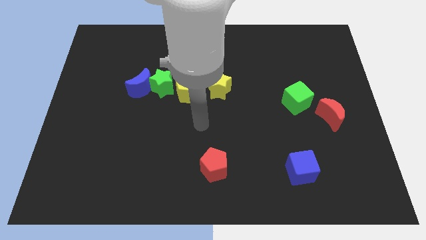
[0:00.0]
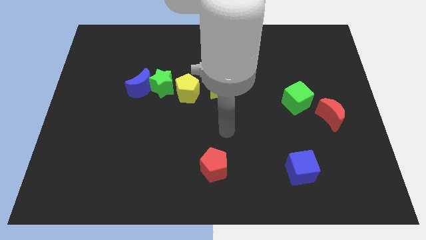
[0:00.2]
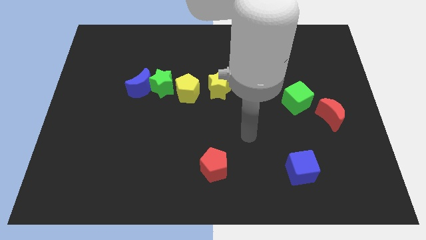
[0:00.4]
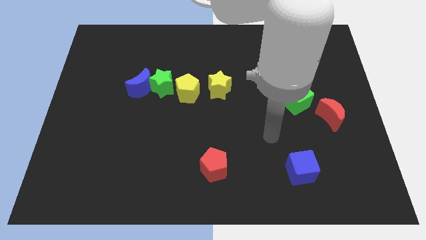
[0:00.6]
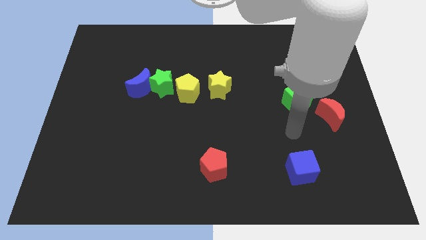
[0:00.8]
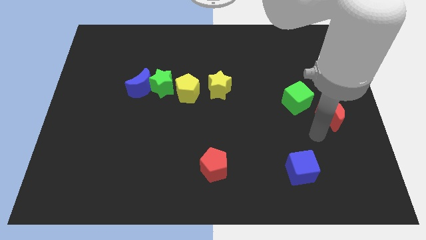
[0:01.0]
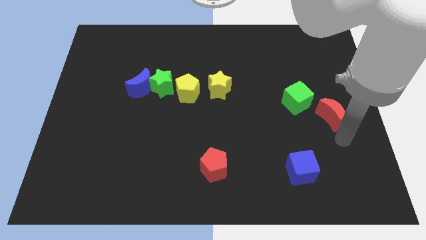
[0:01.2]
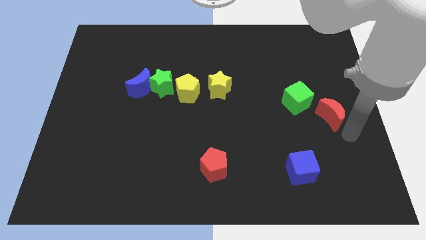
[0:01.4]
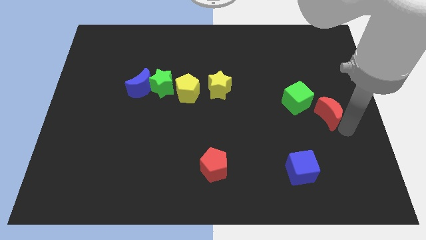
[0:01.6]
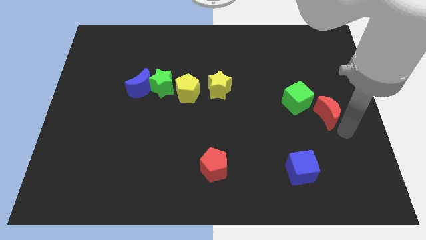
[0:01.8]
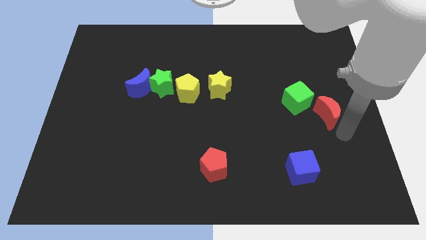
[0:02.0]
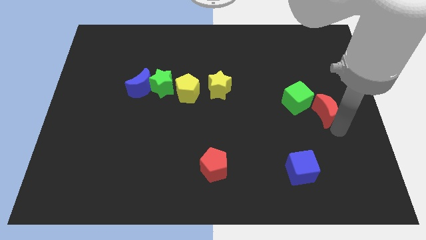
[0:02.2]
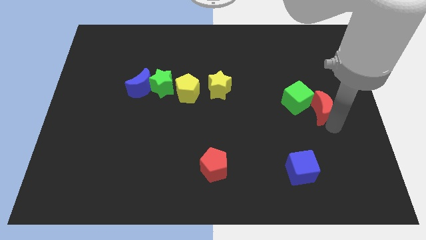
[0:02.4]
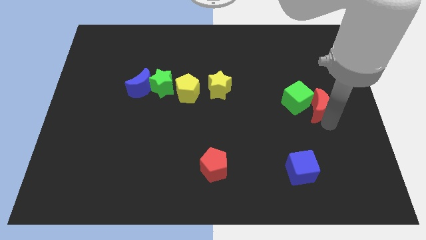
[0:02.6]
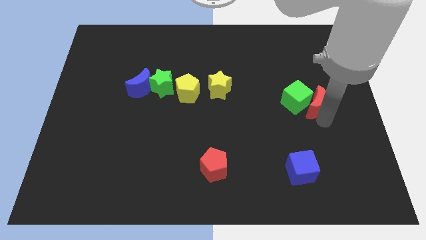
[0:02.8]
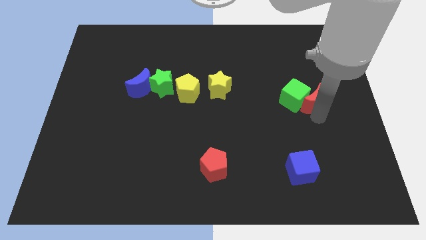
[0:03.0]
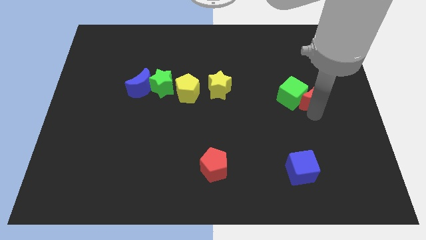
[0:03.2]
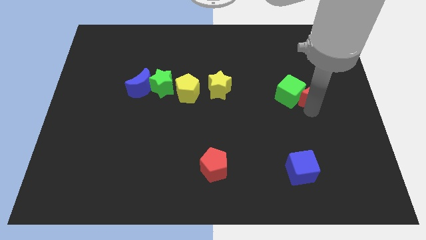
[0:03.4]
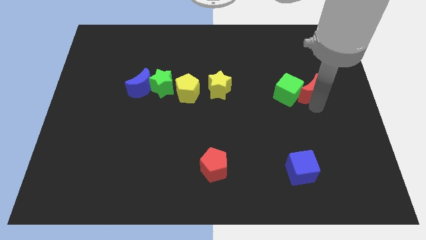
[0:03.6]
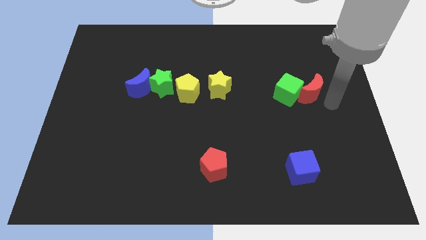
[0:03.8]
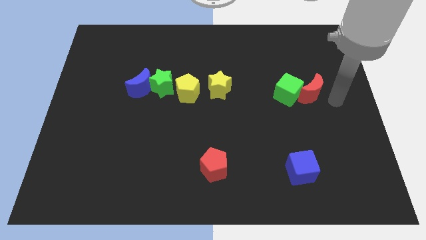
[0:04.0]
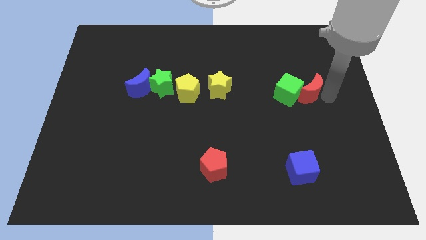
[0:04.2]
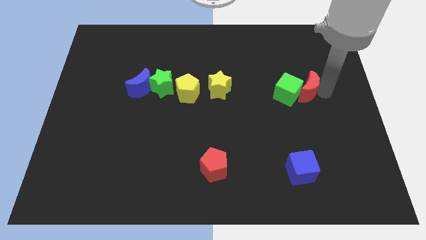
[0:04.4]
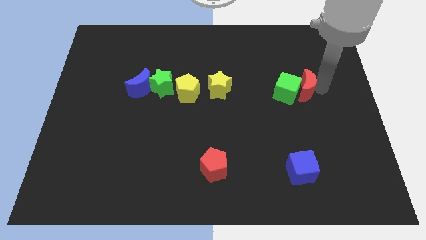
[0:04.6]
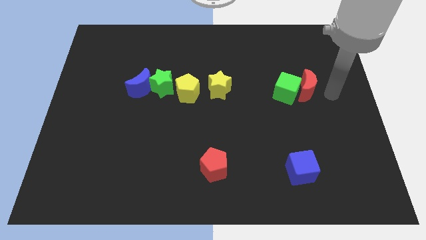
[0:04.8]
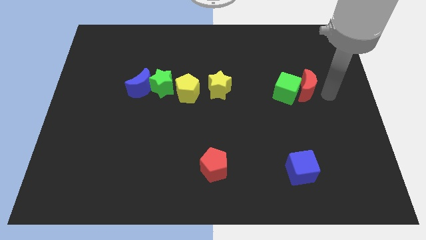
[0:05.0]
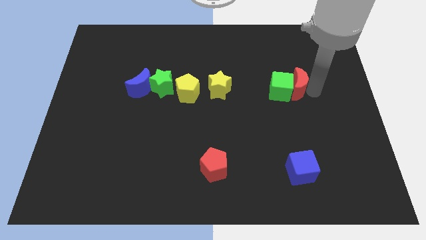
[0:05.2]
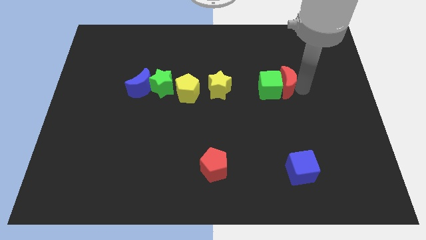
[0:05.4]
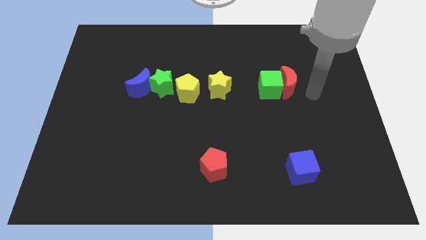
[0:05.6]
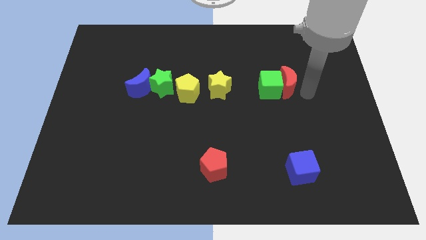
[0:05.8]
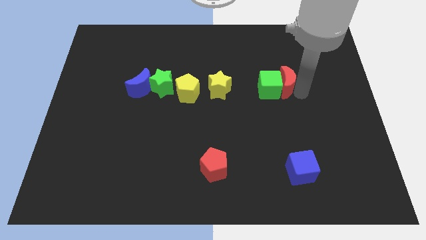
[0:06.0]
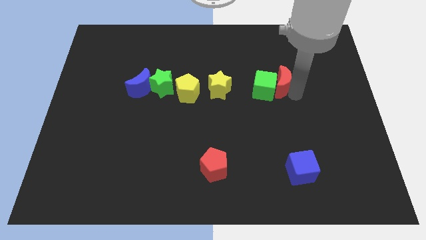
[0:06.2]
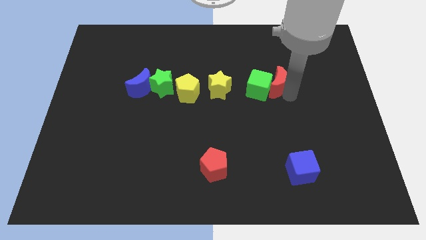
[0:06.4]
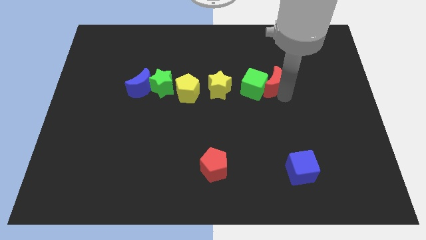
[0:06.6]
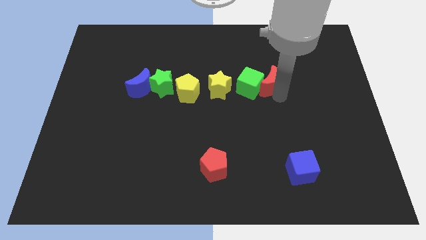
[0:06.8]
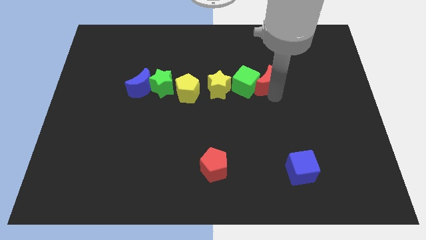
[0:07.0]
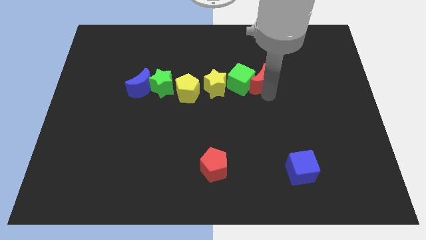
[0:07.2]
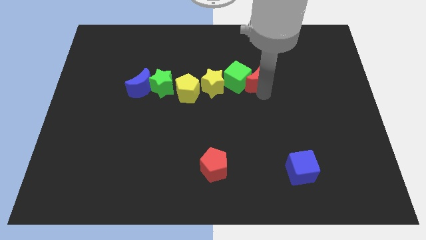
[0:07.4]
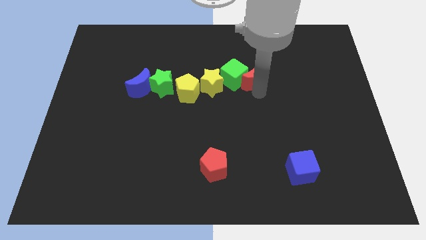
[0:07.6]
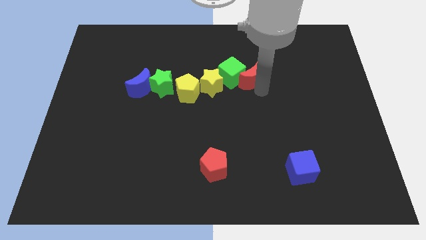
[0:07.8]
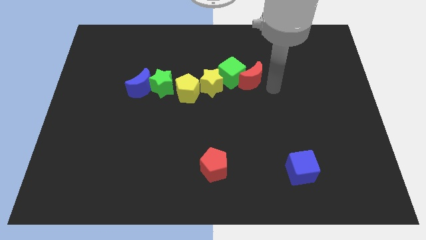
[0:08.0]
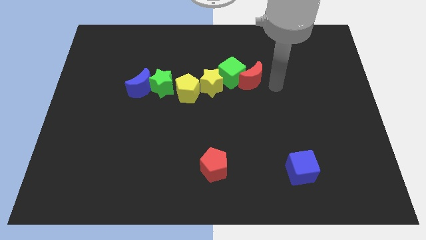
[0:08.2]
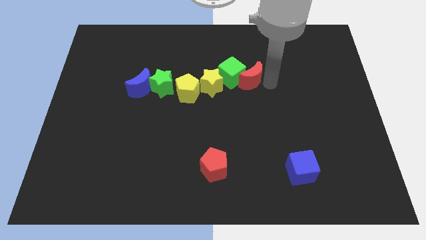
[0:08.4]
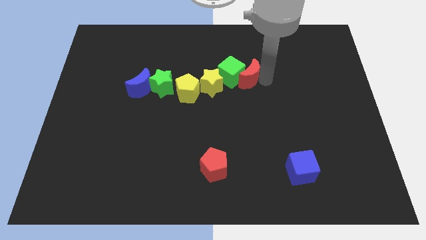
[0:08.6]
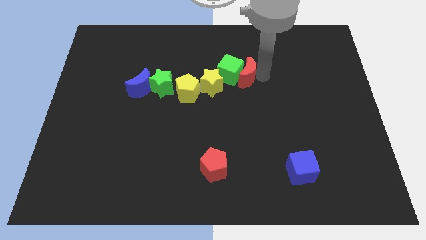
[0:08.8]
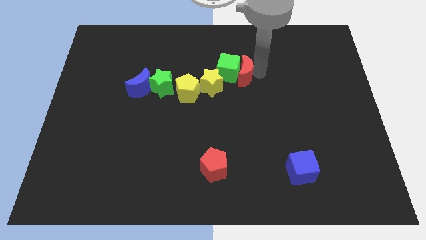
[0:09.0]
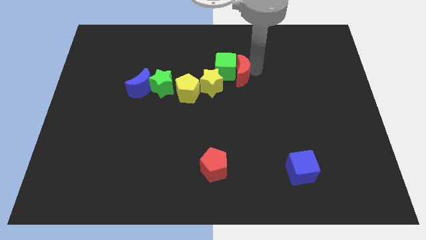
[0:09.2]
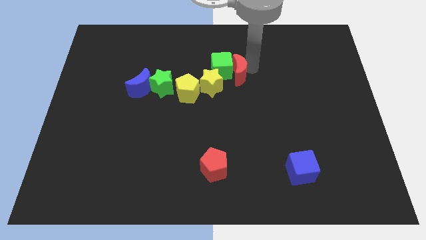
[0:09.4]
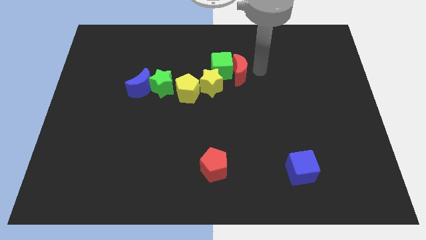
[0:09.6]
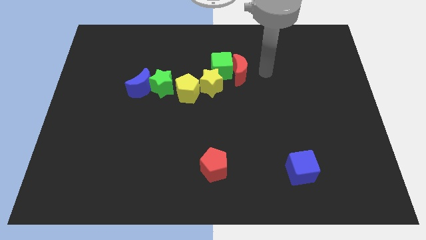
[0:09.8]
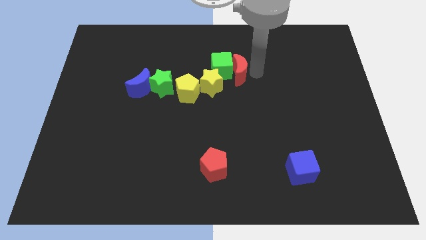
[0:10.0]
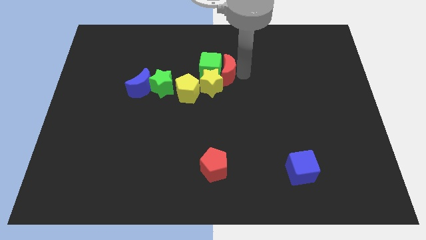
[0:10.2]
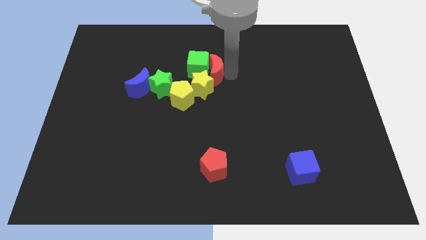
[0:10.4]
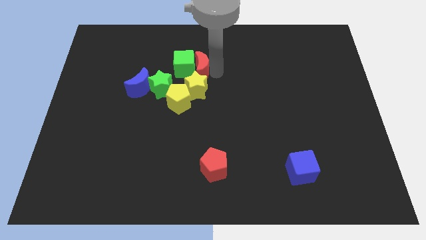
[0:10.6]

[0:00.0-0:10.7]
put the red moon diagonally up and to the right of the green star

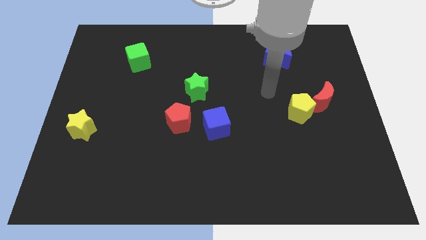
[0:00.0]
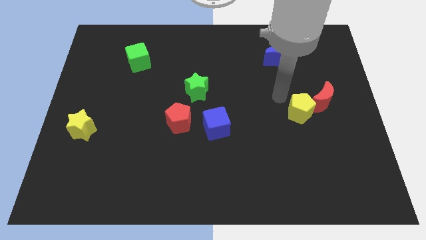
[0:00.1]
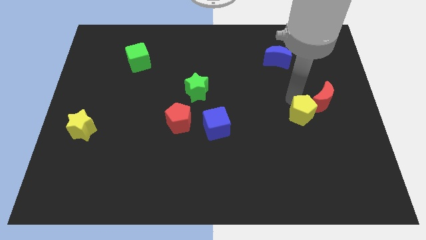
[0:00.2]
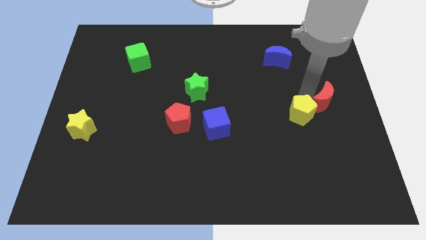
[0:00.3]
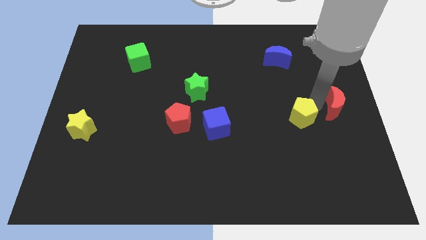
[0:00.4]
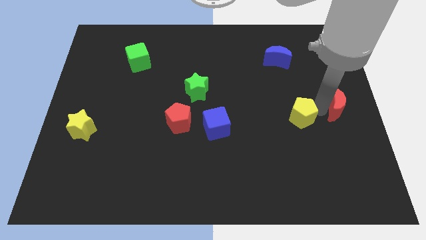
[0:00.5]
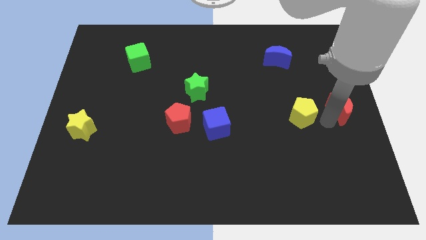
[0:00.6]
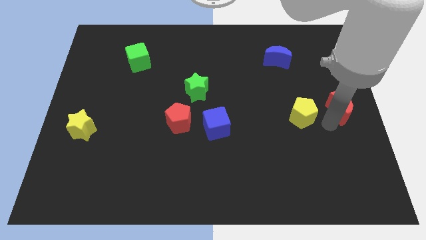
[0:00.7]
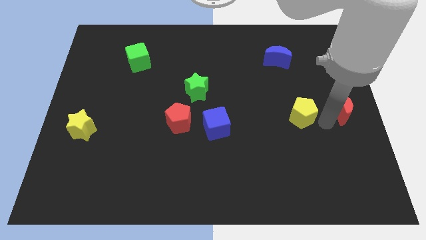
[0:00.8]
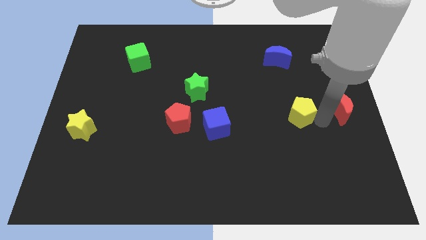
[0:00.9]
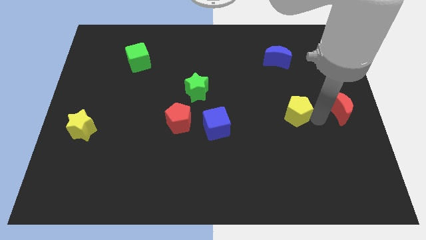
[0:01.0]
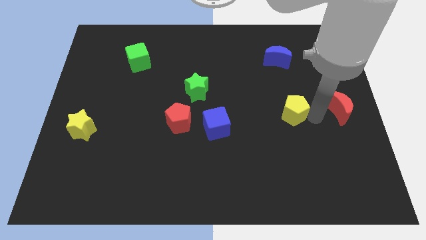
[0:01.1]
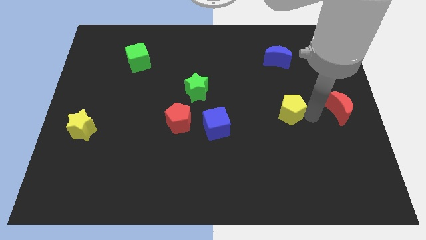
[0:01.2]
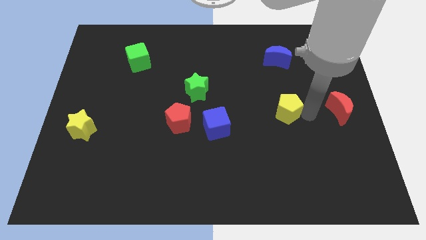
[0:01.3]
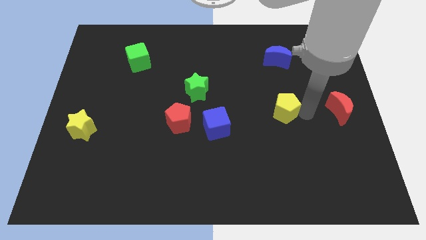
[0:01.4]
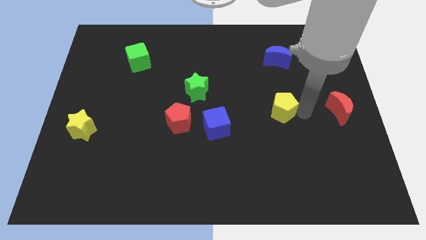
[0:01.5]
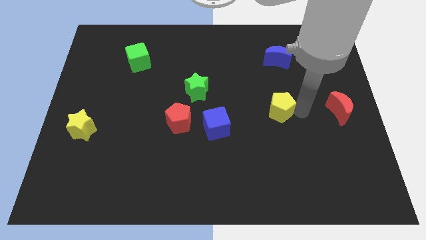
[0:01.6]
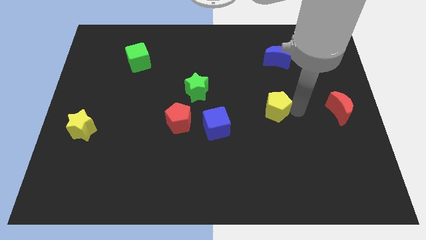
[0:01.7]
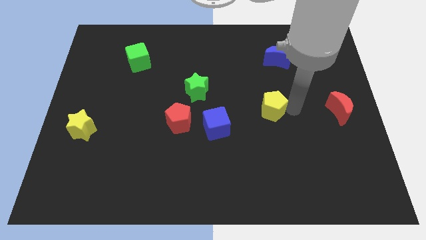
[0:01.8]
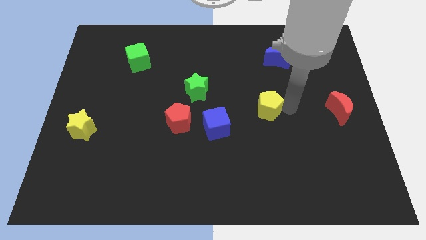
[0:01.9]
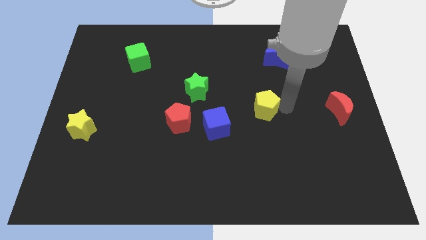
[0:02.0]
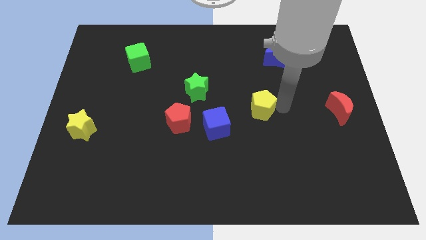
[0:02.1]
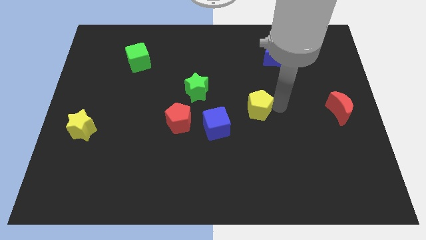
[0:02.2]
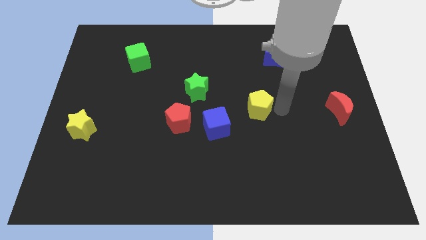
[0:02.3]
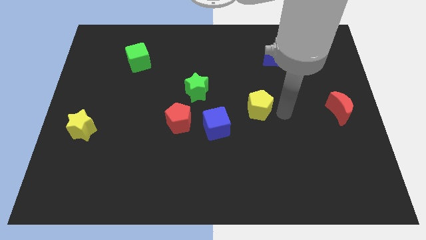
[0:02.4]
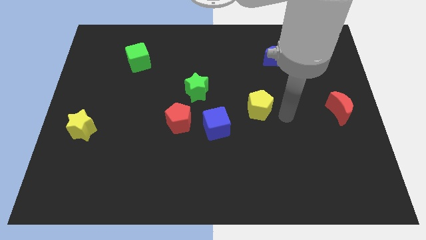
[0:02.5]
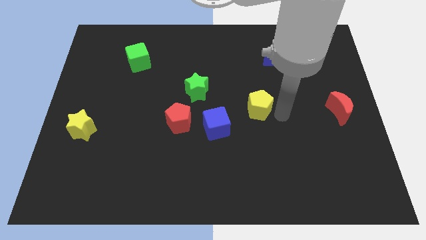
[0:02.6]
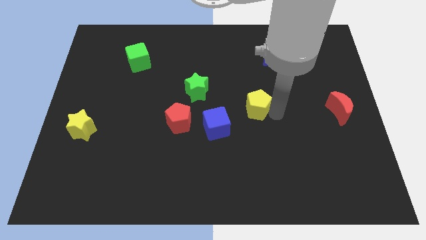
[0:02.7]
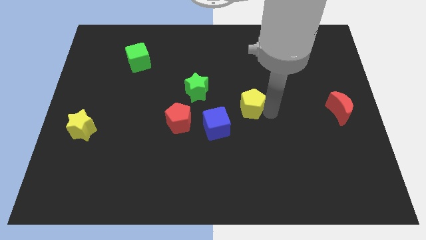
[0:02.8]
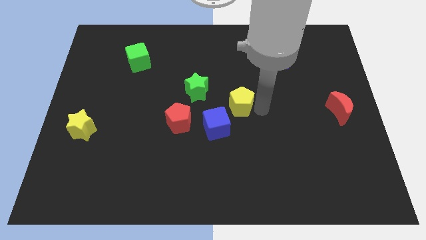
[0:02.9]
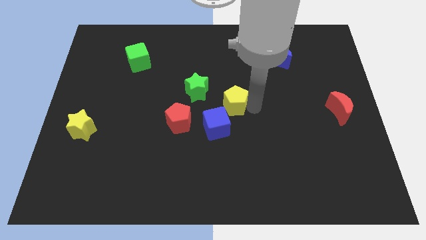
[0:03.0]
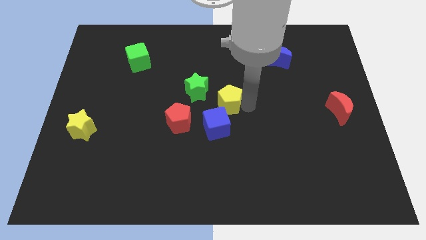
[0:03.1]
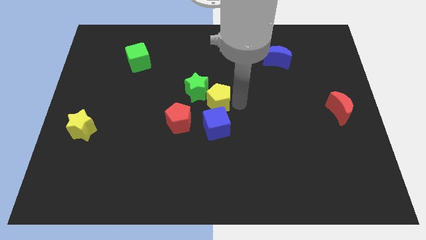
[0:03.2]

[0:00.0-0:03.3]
move the yellow pentagon diagonally up and to the right of the red pentagon
